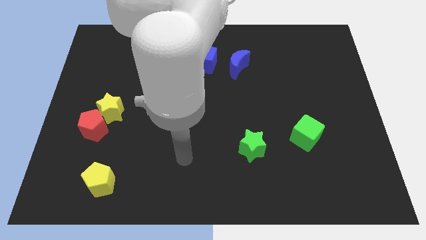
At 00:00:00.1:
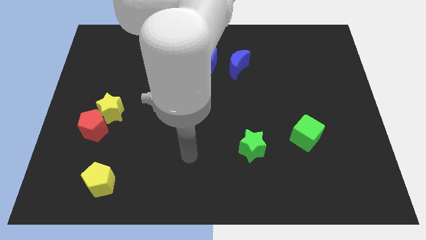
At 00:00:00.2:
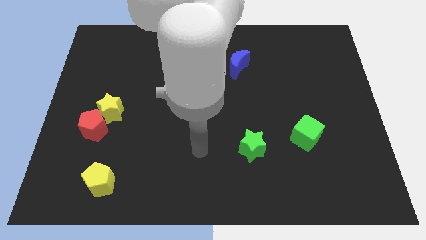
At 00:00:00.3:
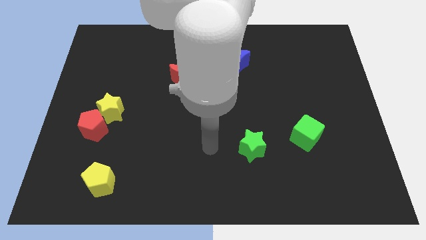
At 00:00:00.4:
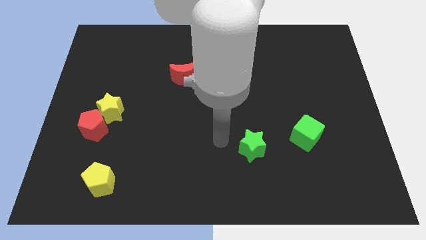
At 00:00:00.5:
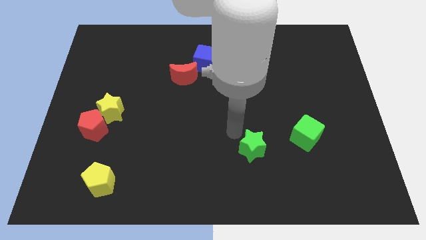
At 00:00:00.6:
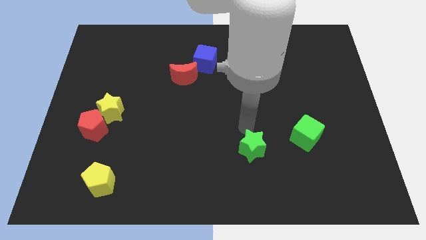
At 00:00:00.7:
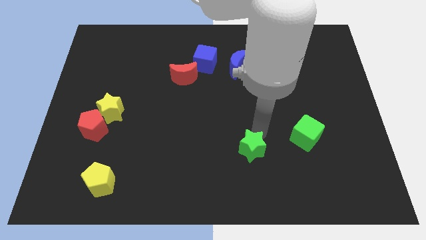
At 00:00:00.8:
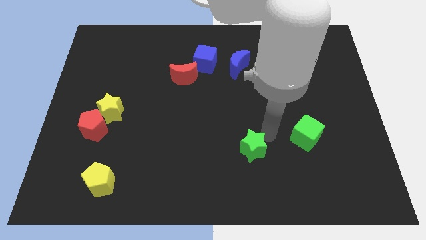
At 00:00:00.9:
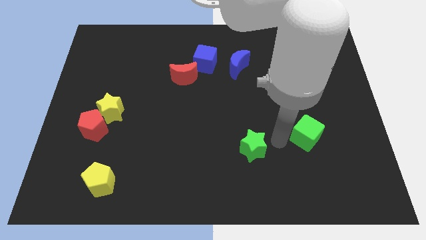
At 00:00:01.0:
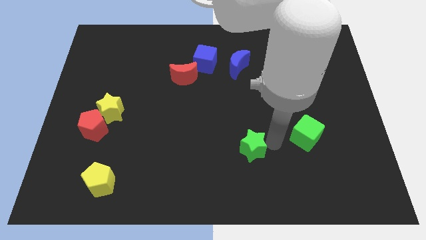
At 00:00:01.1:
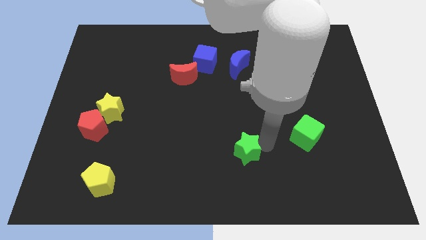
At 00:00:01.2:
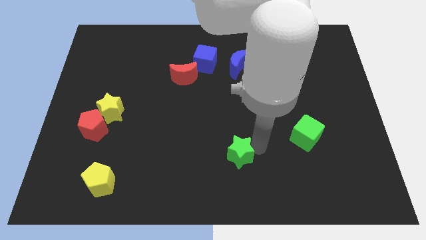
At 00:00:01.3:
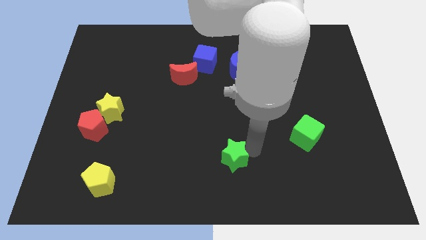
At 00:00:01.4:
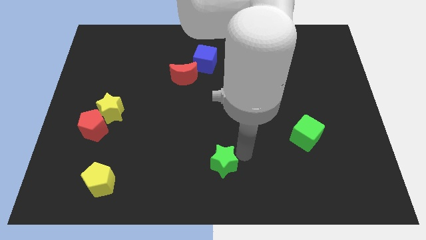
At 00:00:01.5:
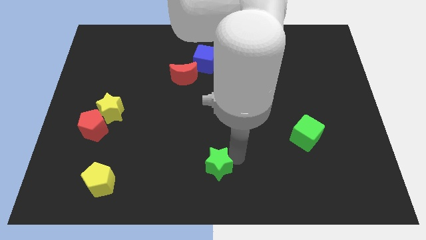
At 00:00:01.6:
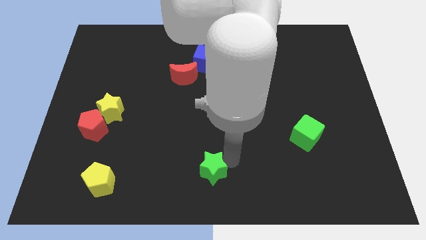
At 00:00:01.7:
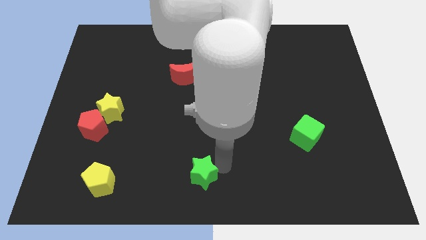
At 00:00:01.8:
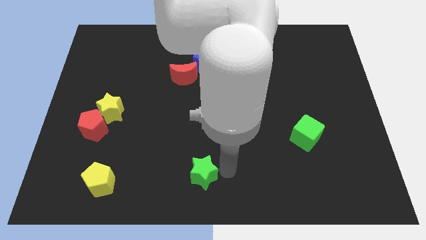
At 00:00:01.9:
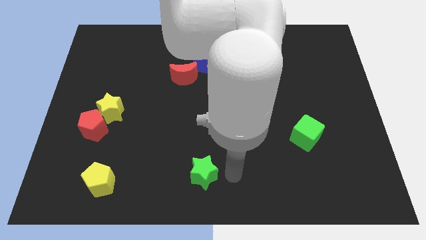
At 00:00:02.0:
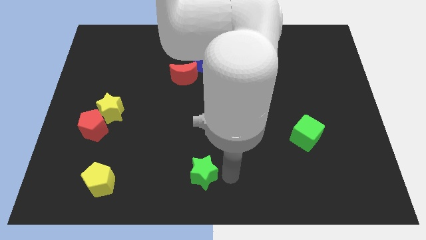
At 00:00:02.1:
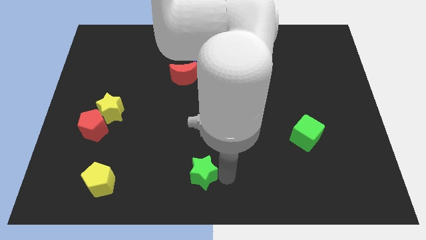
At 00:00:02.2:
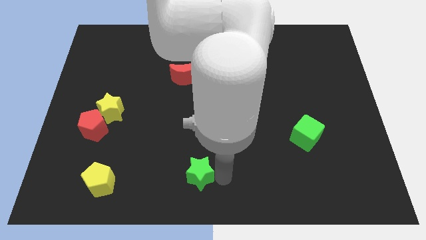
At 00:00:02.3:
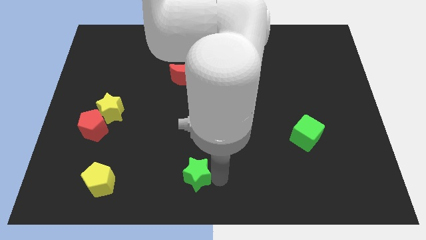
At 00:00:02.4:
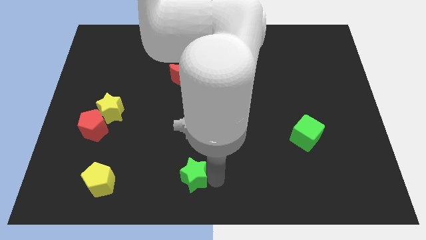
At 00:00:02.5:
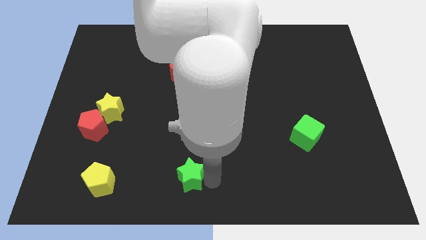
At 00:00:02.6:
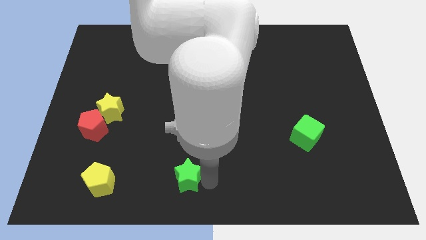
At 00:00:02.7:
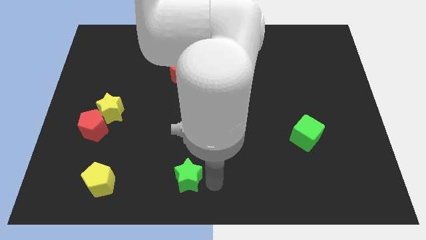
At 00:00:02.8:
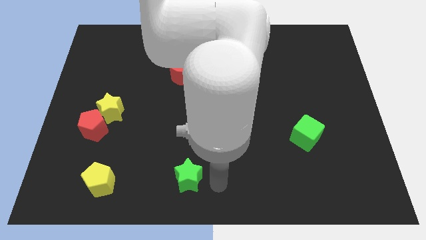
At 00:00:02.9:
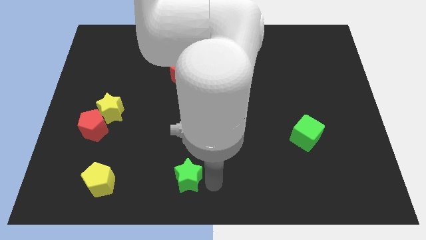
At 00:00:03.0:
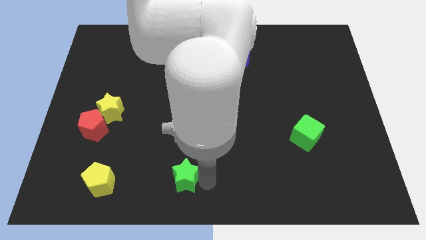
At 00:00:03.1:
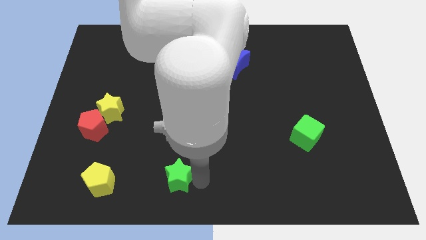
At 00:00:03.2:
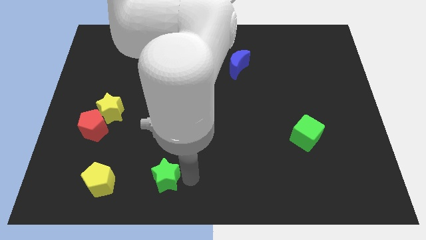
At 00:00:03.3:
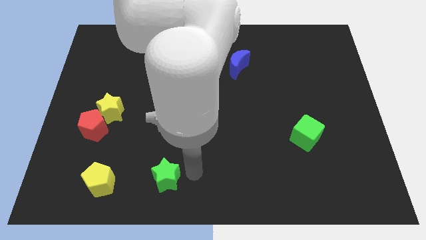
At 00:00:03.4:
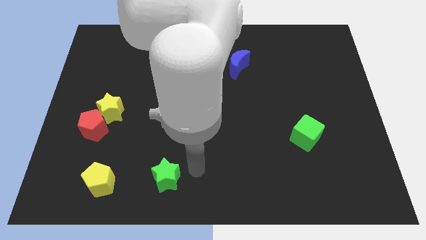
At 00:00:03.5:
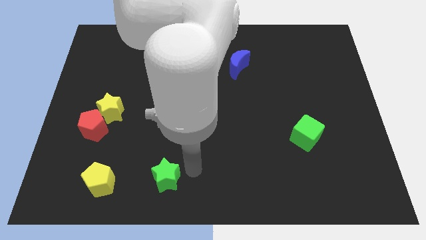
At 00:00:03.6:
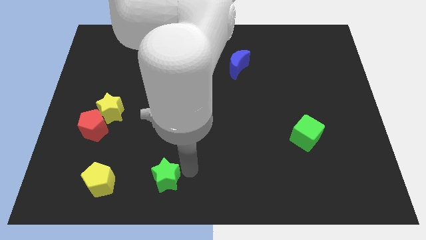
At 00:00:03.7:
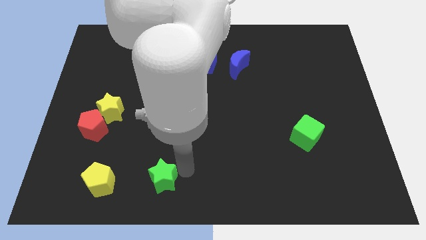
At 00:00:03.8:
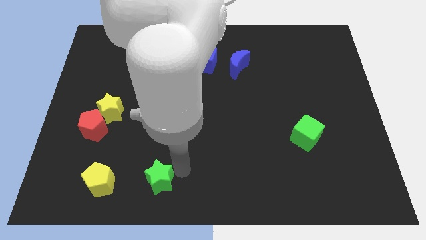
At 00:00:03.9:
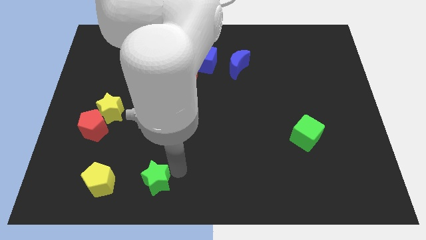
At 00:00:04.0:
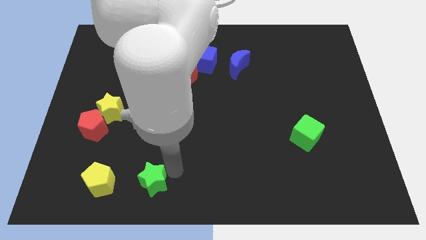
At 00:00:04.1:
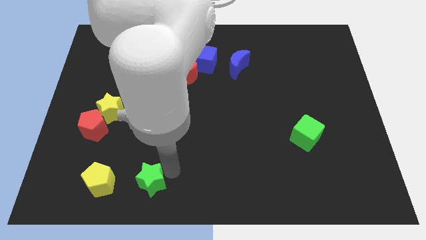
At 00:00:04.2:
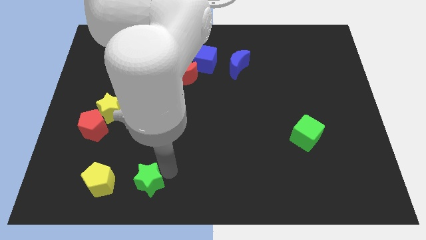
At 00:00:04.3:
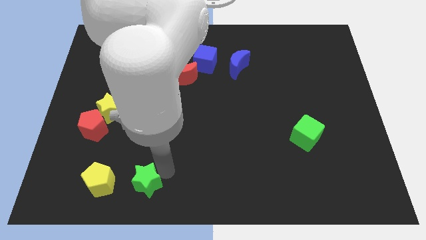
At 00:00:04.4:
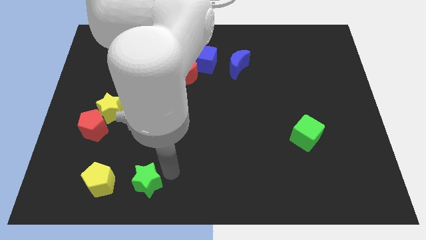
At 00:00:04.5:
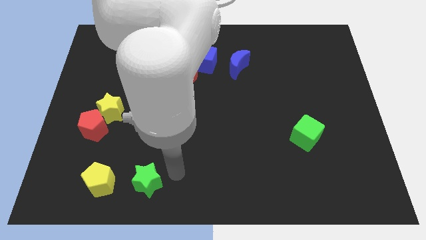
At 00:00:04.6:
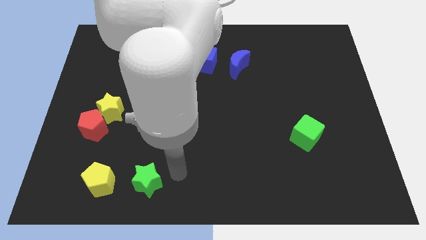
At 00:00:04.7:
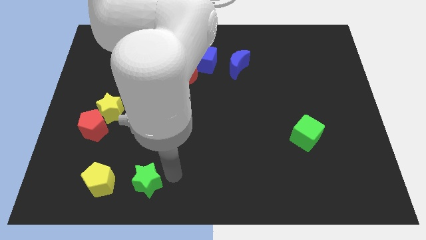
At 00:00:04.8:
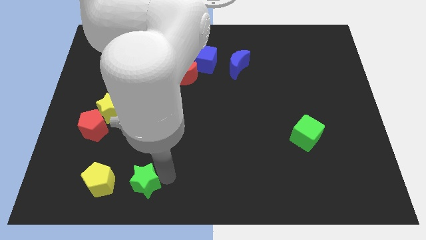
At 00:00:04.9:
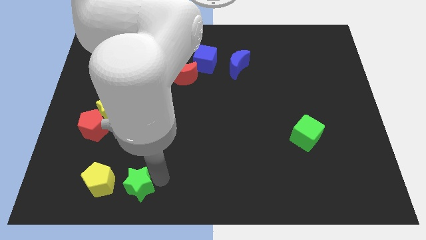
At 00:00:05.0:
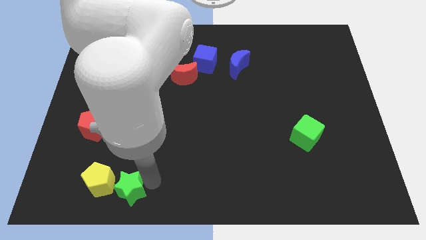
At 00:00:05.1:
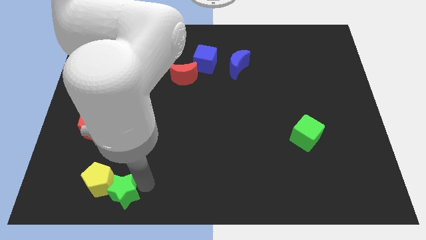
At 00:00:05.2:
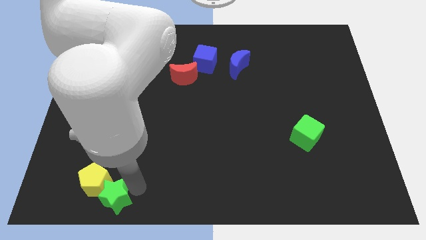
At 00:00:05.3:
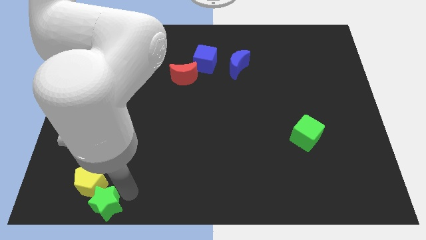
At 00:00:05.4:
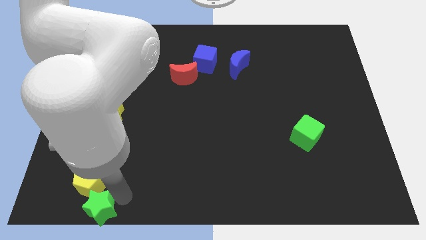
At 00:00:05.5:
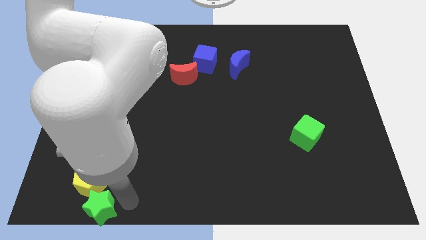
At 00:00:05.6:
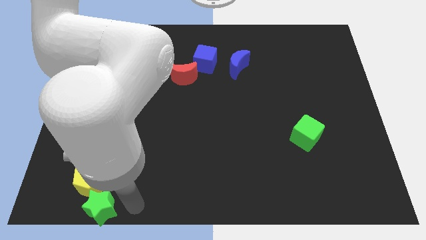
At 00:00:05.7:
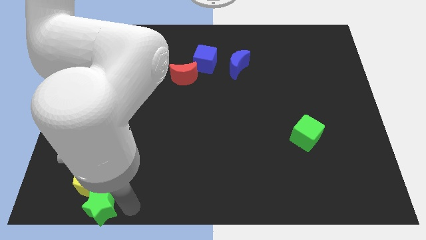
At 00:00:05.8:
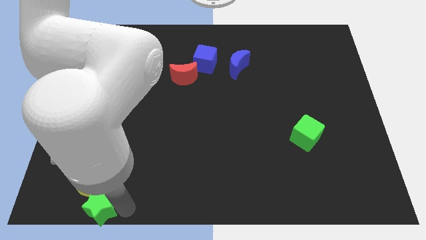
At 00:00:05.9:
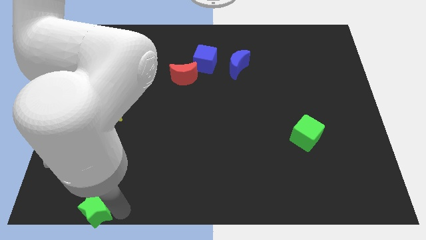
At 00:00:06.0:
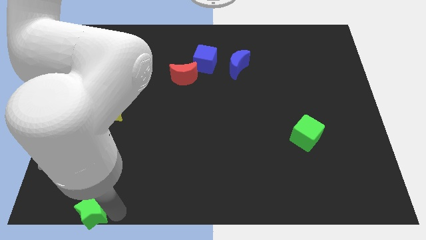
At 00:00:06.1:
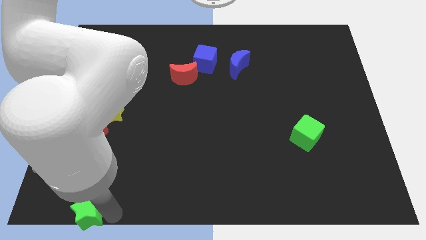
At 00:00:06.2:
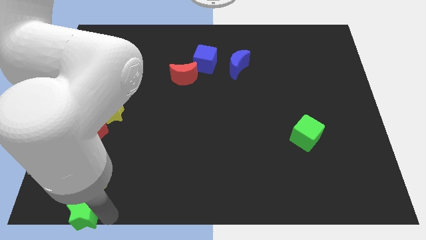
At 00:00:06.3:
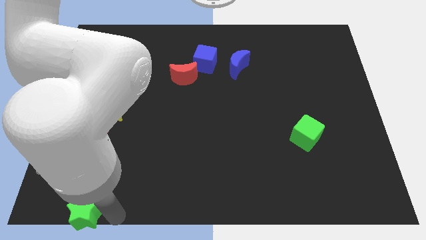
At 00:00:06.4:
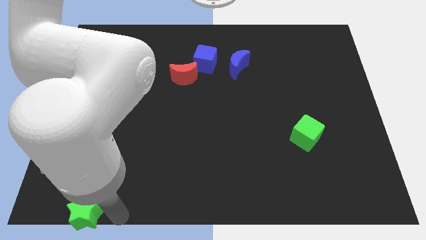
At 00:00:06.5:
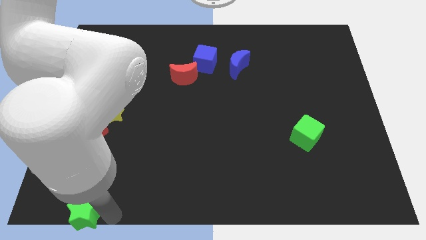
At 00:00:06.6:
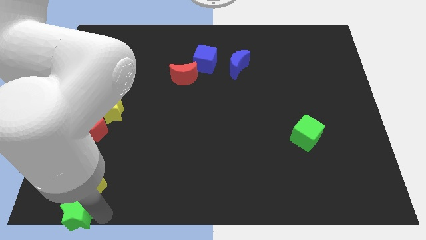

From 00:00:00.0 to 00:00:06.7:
move the green star to the lower left corner

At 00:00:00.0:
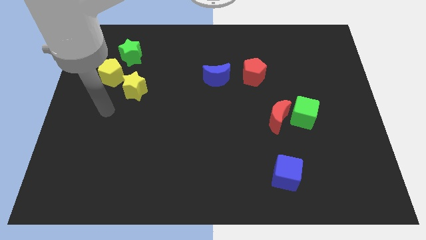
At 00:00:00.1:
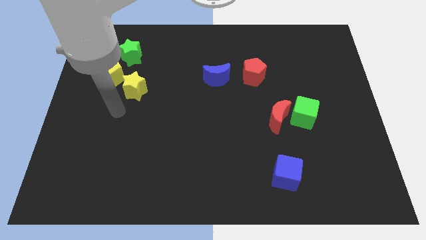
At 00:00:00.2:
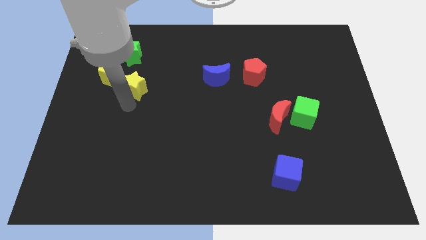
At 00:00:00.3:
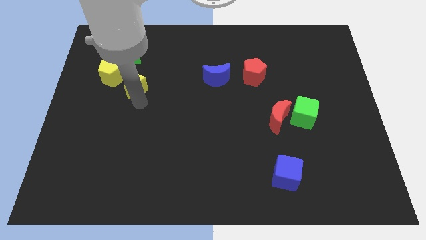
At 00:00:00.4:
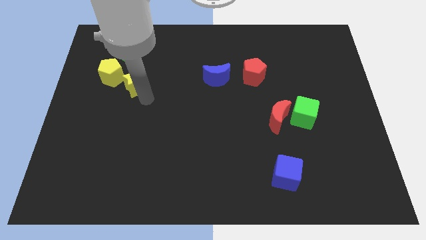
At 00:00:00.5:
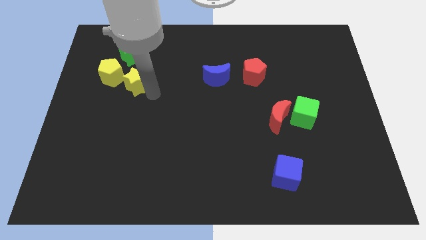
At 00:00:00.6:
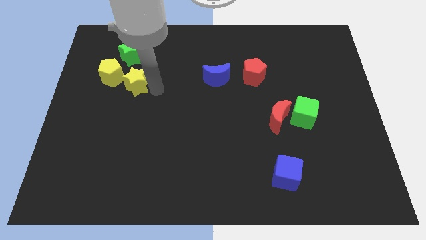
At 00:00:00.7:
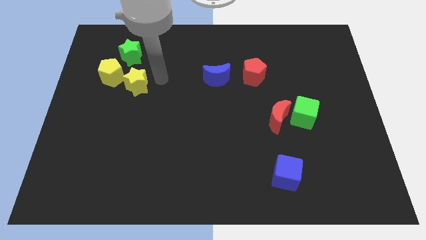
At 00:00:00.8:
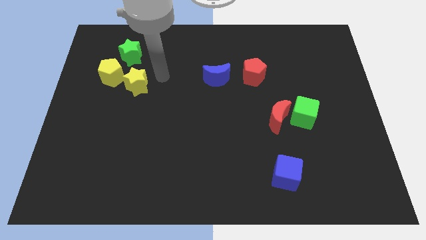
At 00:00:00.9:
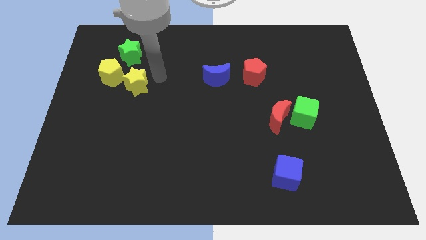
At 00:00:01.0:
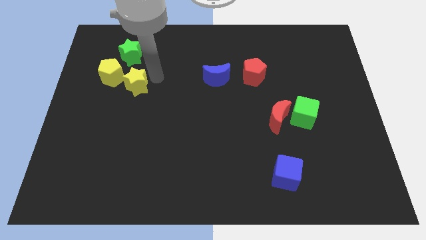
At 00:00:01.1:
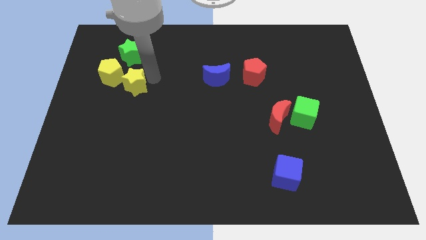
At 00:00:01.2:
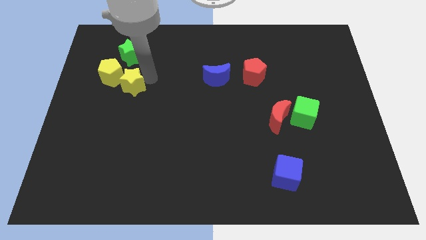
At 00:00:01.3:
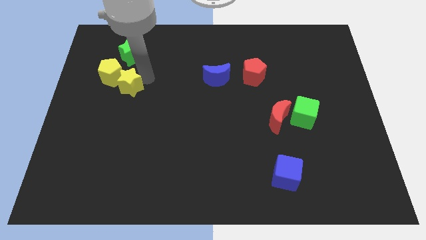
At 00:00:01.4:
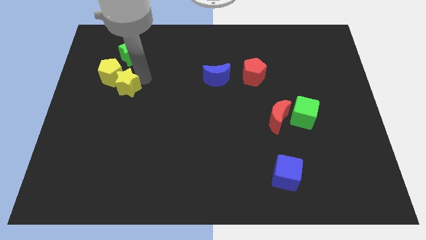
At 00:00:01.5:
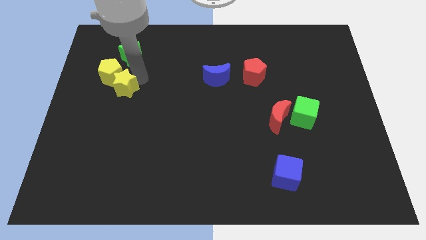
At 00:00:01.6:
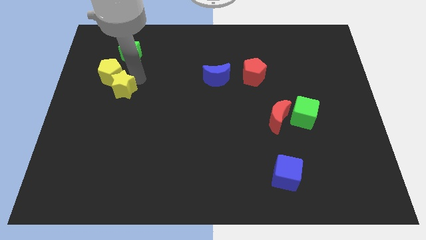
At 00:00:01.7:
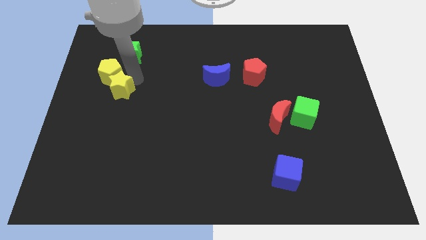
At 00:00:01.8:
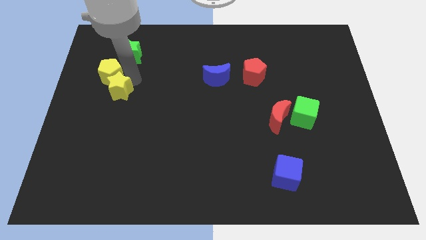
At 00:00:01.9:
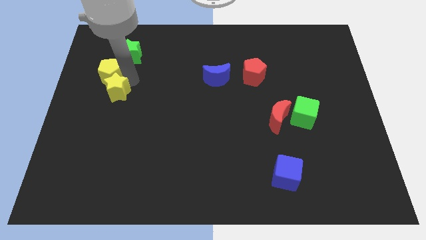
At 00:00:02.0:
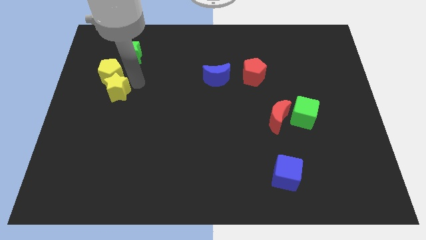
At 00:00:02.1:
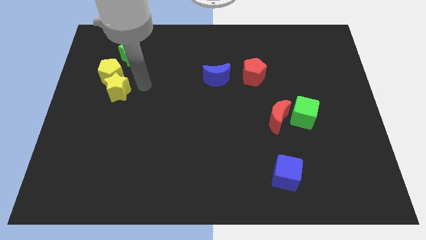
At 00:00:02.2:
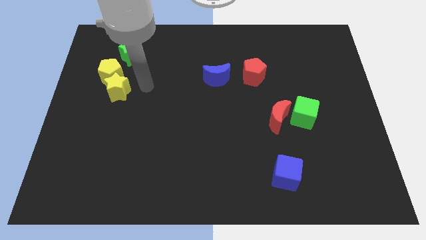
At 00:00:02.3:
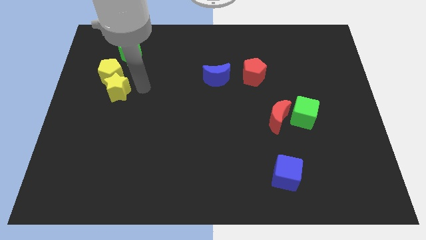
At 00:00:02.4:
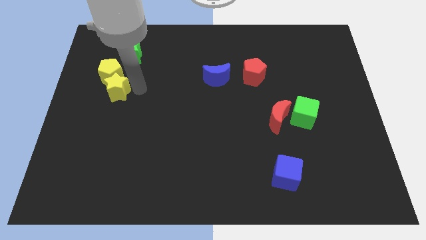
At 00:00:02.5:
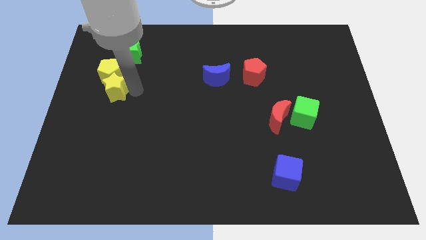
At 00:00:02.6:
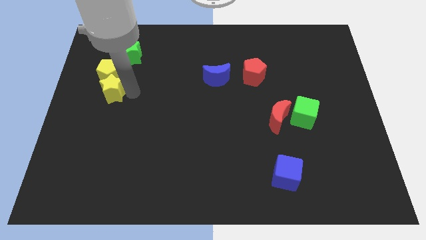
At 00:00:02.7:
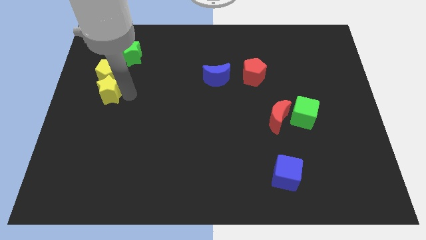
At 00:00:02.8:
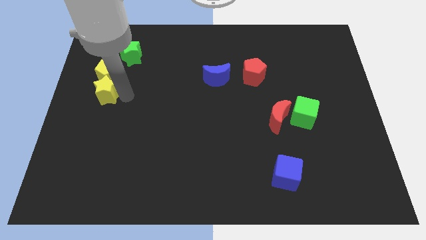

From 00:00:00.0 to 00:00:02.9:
move the yellow star to the left side of the board
